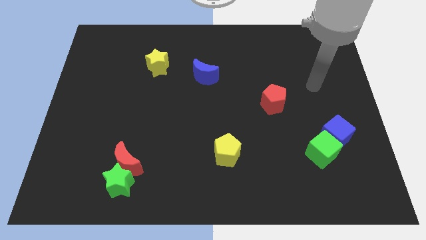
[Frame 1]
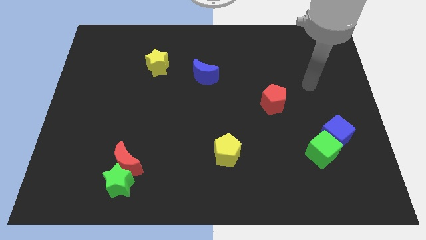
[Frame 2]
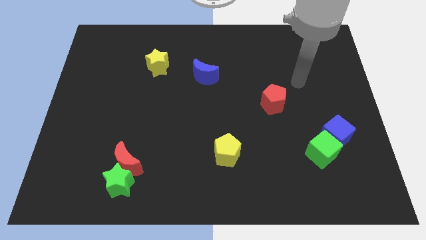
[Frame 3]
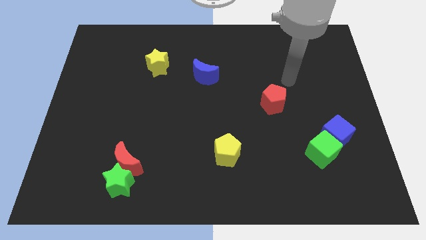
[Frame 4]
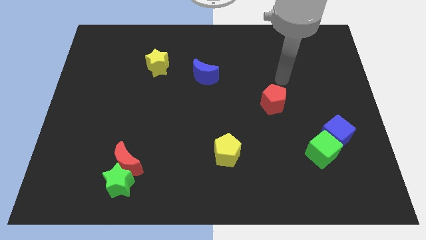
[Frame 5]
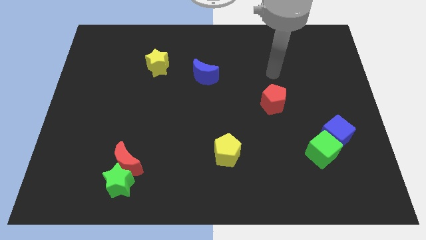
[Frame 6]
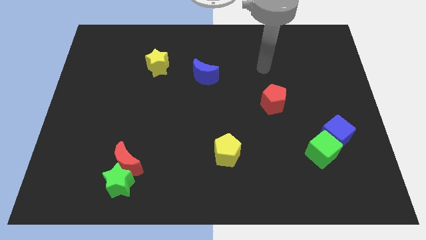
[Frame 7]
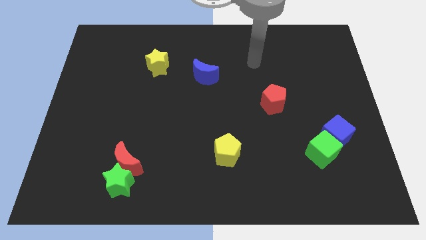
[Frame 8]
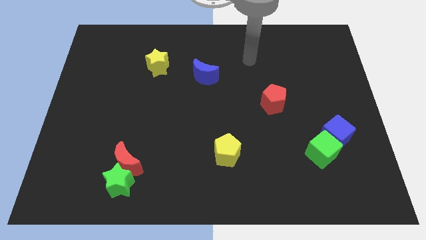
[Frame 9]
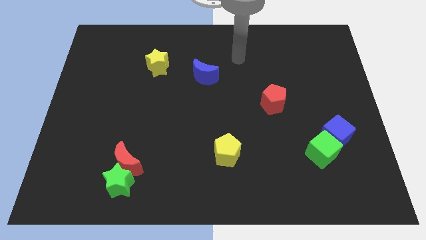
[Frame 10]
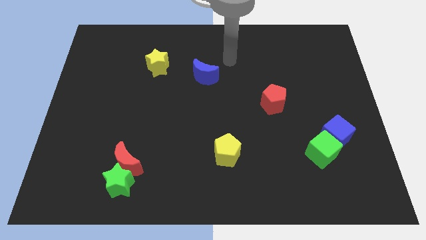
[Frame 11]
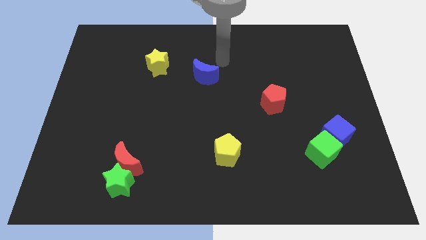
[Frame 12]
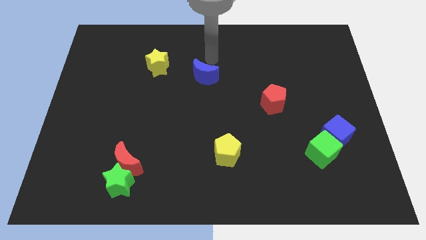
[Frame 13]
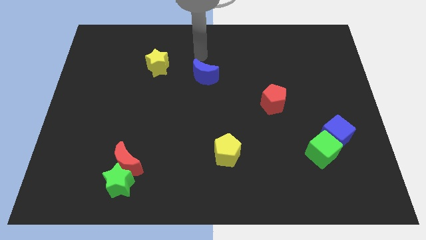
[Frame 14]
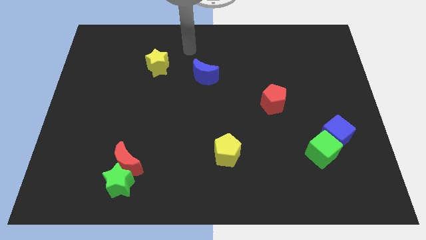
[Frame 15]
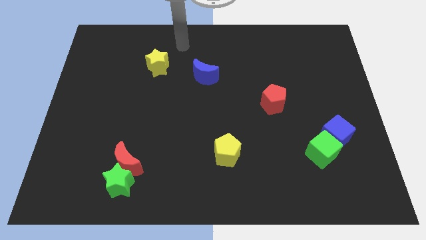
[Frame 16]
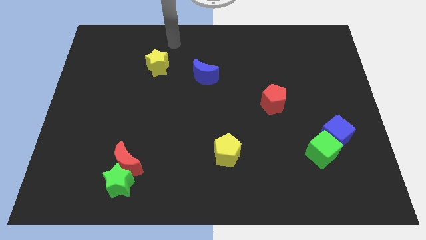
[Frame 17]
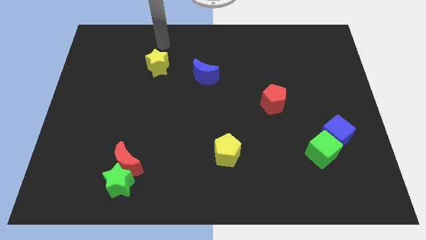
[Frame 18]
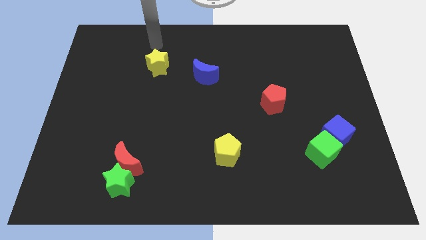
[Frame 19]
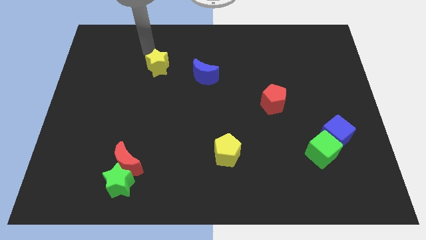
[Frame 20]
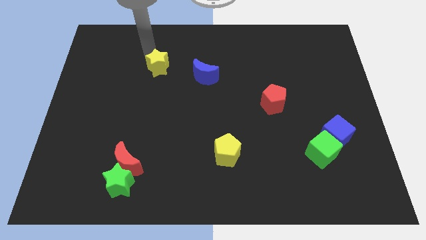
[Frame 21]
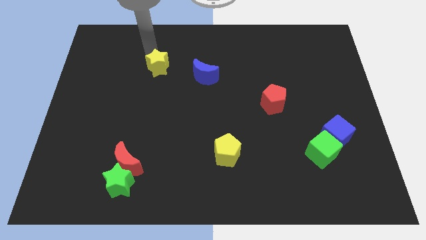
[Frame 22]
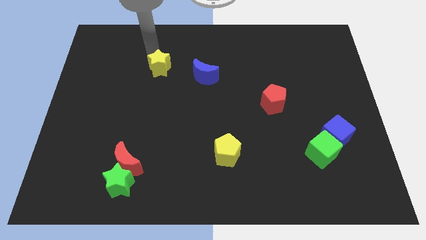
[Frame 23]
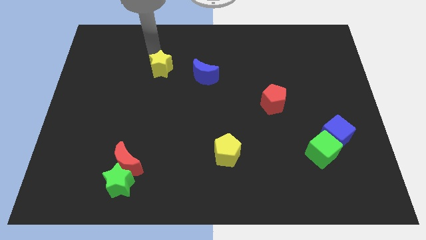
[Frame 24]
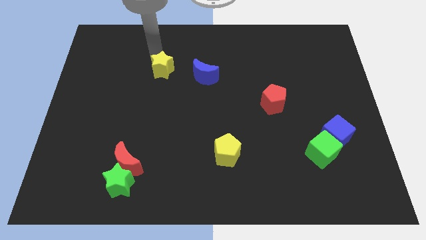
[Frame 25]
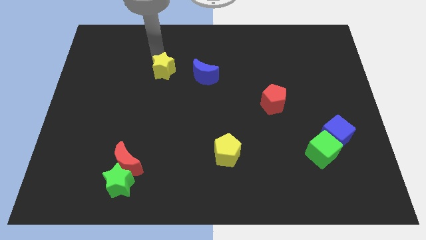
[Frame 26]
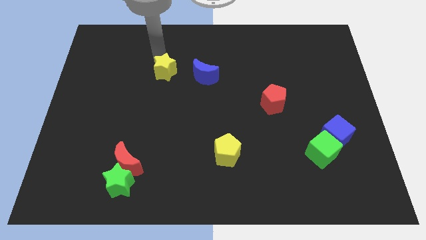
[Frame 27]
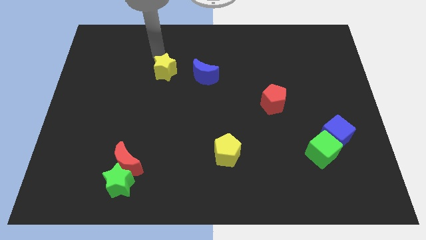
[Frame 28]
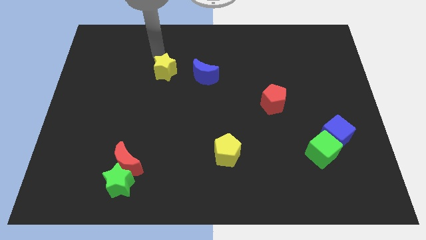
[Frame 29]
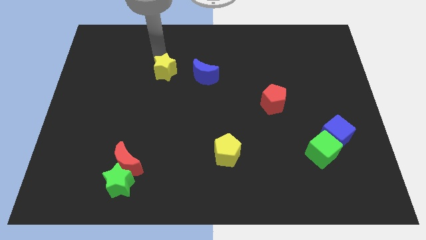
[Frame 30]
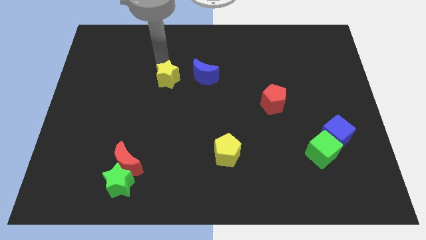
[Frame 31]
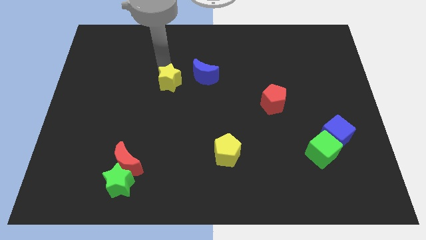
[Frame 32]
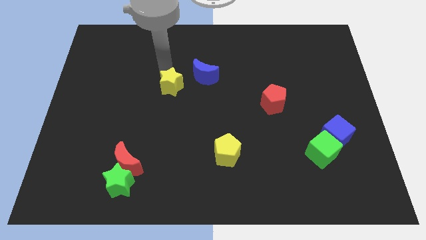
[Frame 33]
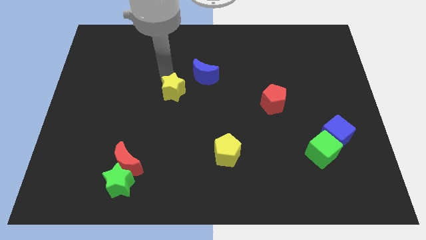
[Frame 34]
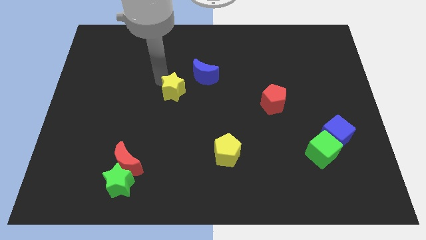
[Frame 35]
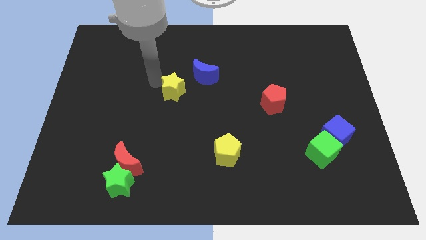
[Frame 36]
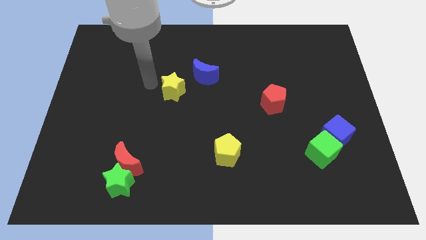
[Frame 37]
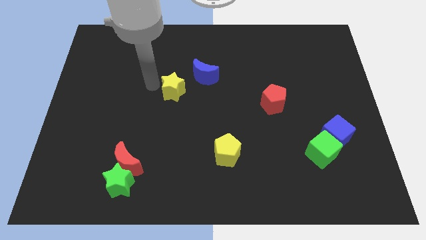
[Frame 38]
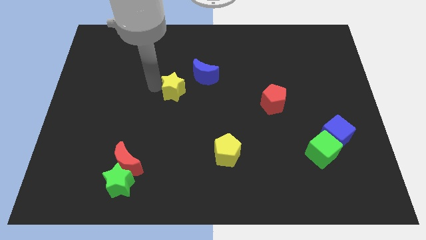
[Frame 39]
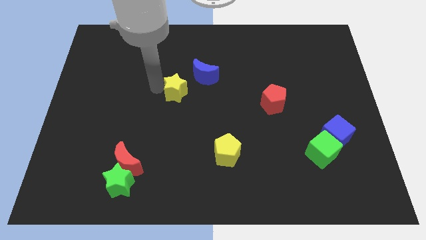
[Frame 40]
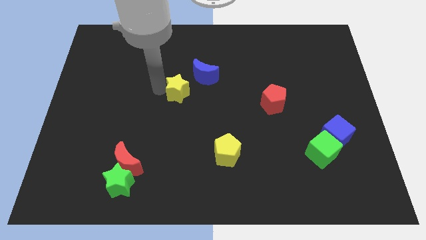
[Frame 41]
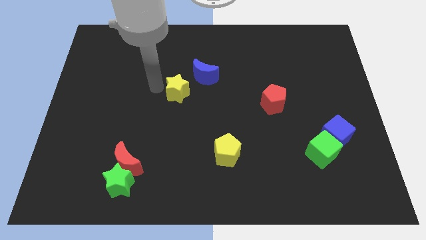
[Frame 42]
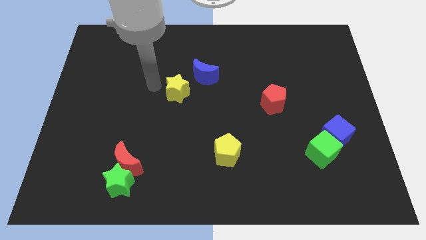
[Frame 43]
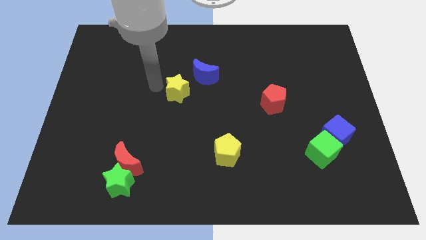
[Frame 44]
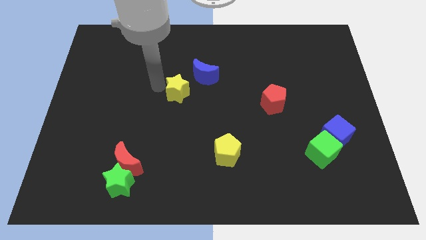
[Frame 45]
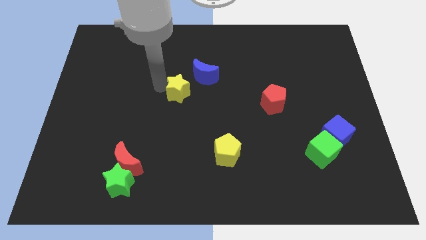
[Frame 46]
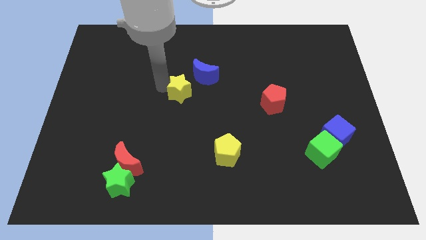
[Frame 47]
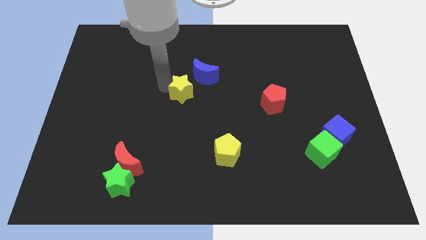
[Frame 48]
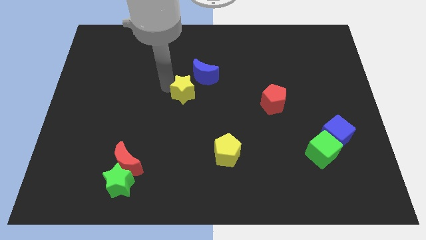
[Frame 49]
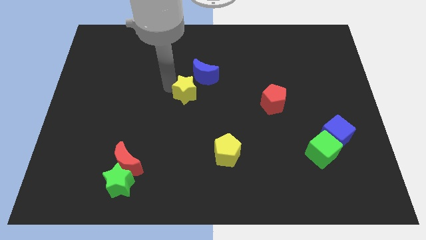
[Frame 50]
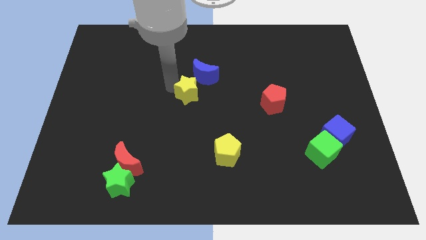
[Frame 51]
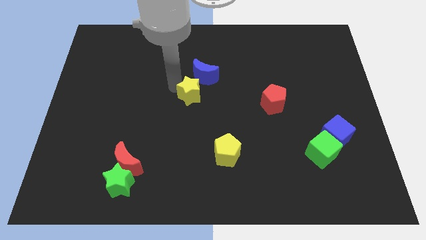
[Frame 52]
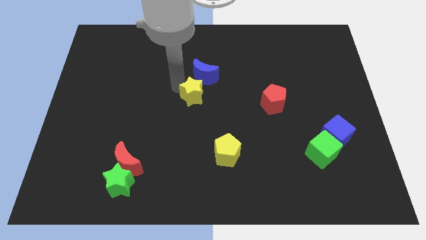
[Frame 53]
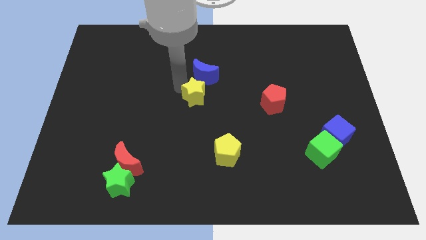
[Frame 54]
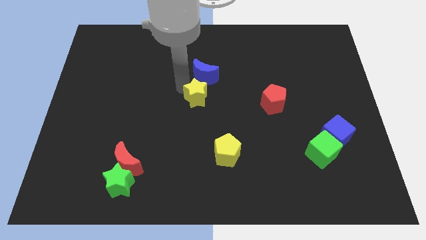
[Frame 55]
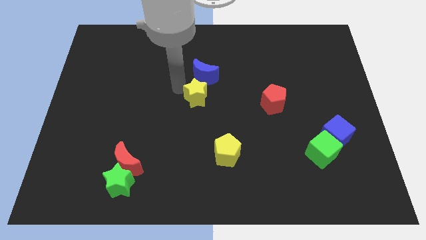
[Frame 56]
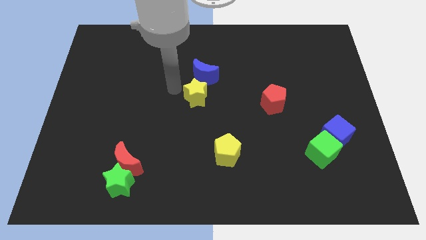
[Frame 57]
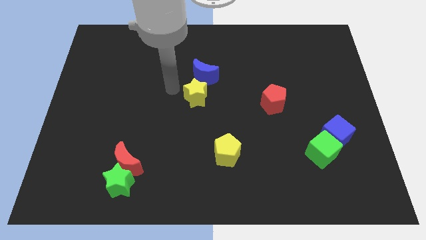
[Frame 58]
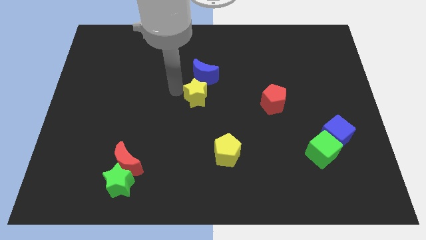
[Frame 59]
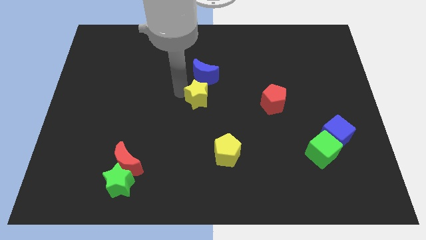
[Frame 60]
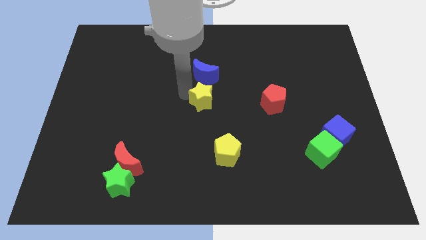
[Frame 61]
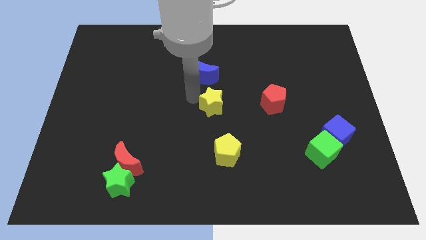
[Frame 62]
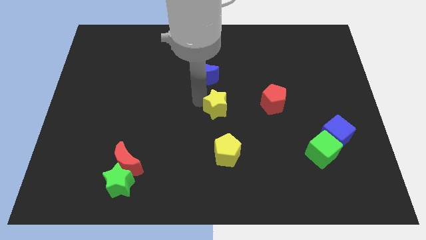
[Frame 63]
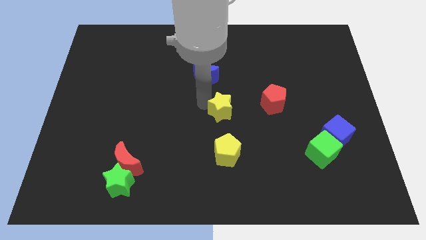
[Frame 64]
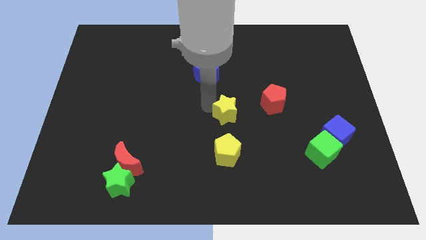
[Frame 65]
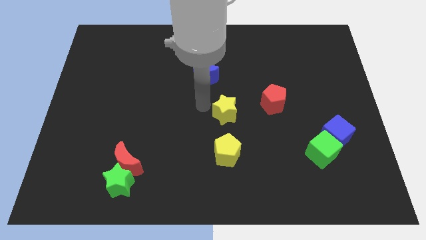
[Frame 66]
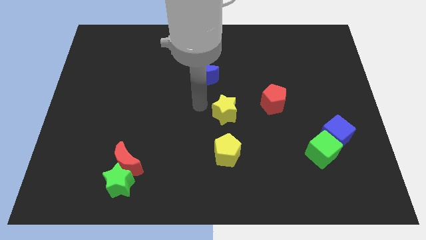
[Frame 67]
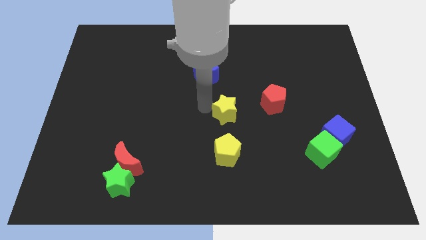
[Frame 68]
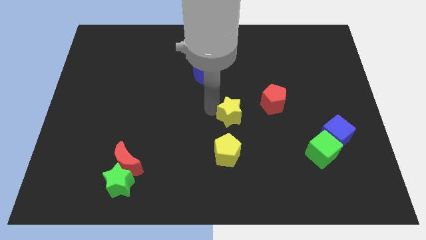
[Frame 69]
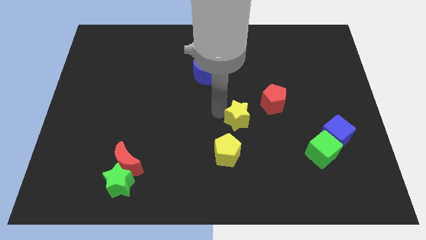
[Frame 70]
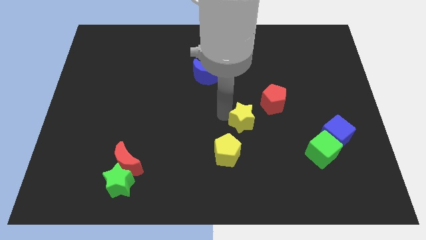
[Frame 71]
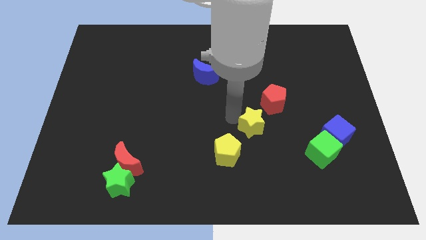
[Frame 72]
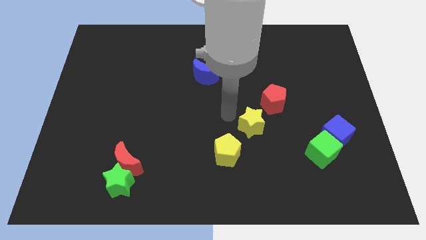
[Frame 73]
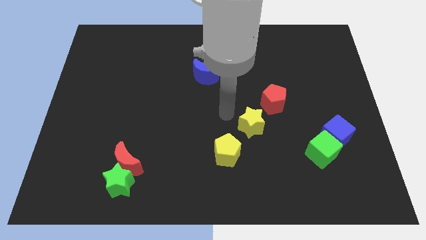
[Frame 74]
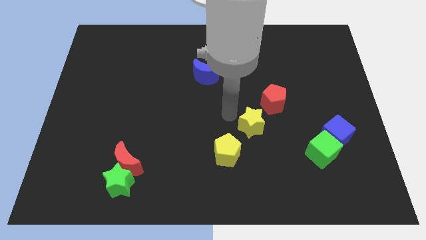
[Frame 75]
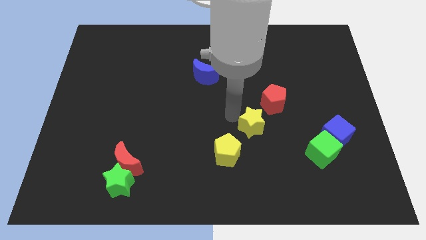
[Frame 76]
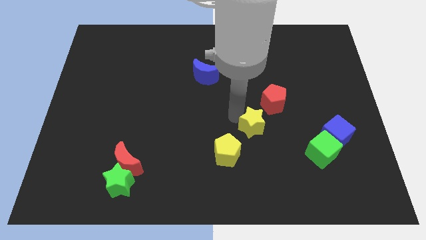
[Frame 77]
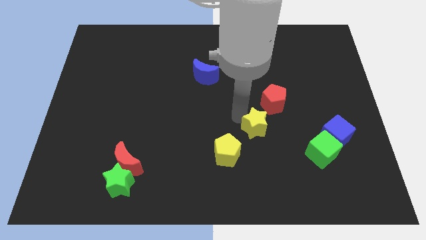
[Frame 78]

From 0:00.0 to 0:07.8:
put the yellow star below the red pentagon
